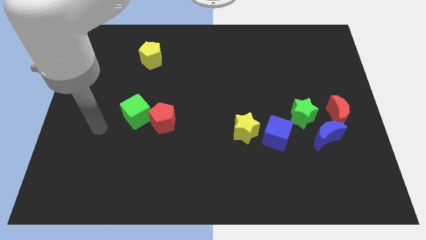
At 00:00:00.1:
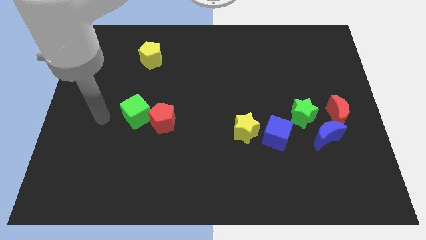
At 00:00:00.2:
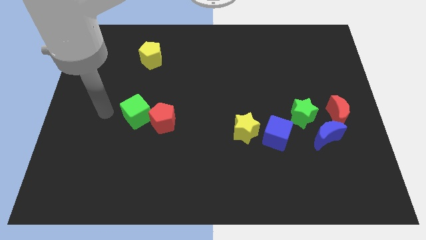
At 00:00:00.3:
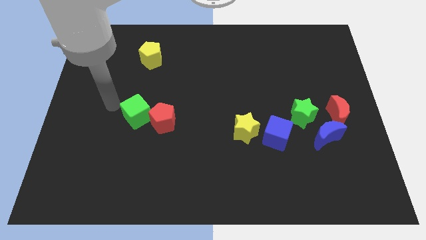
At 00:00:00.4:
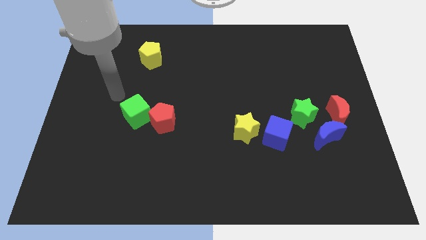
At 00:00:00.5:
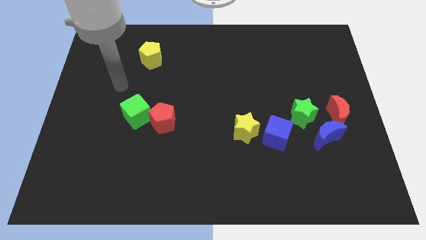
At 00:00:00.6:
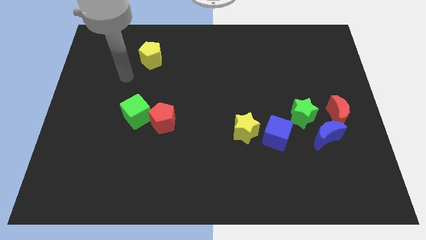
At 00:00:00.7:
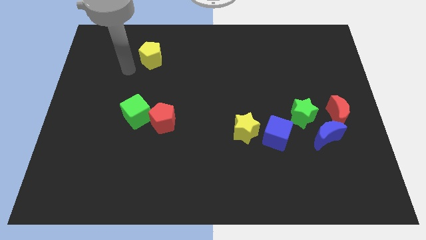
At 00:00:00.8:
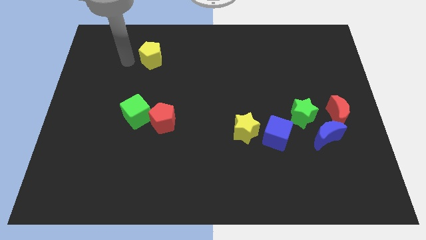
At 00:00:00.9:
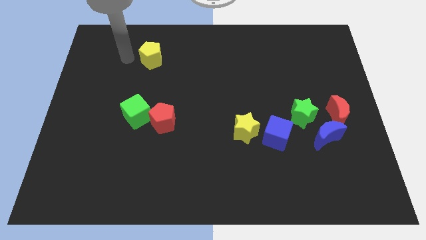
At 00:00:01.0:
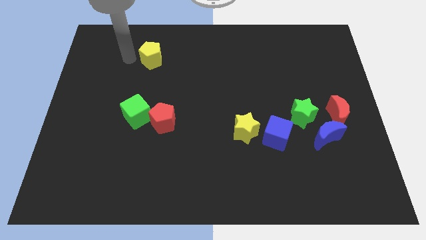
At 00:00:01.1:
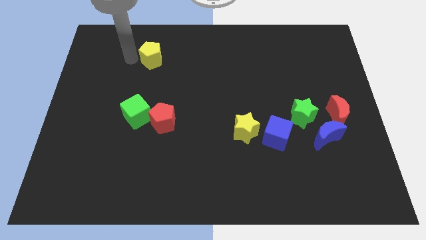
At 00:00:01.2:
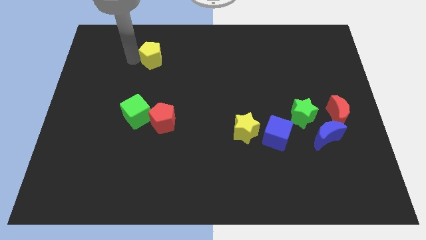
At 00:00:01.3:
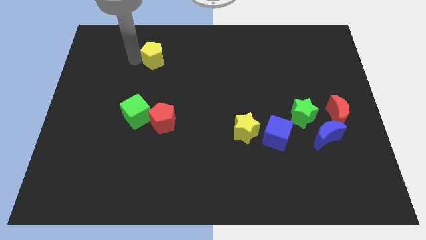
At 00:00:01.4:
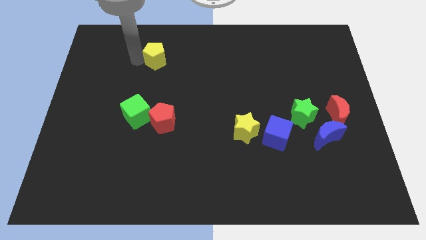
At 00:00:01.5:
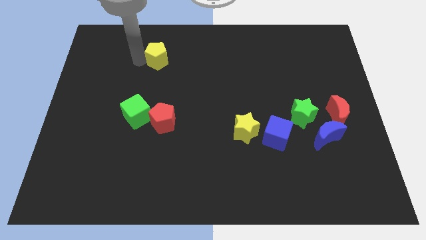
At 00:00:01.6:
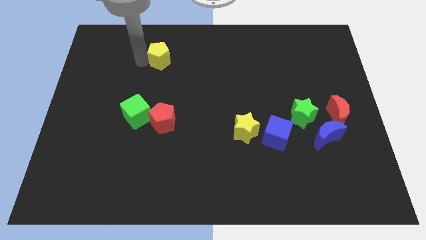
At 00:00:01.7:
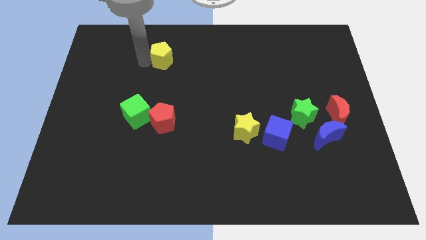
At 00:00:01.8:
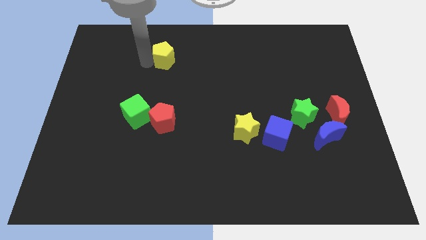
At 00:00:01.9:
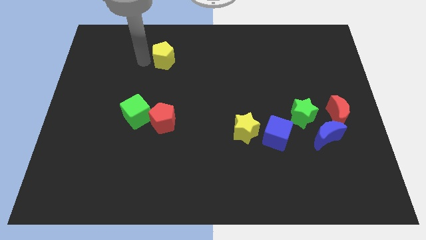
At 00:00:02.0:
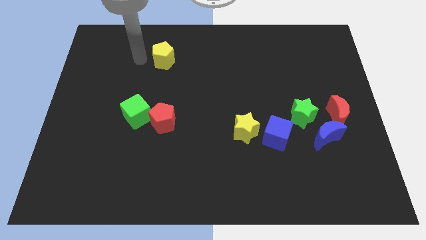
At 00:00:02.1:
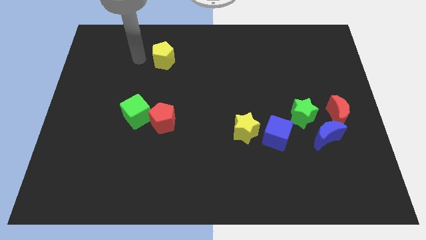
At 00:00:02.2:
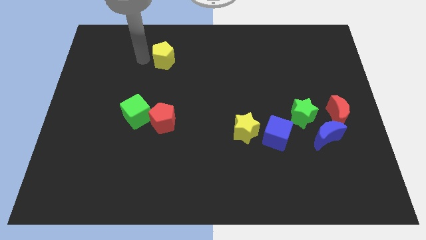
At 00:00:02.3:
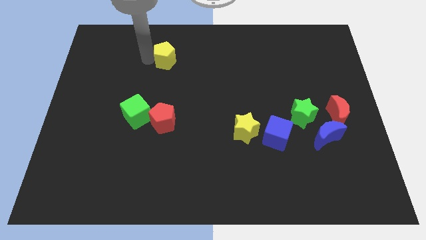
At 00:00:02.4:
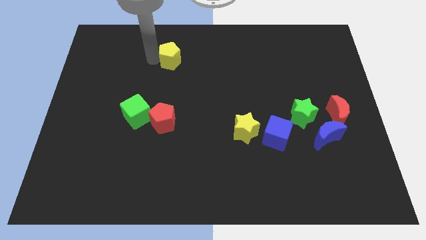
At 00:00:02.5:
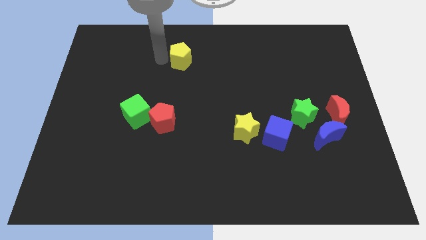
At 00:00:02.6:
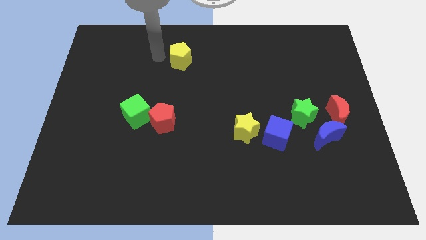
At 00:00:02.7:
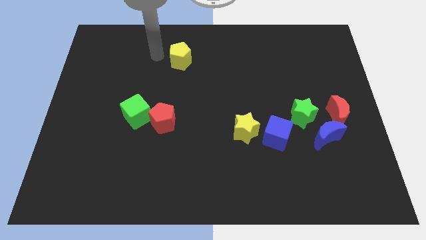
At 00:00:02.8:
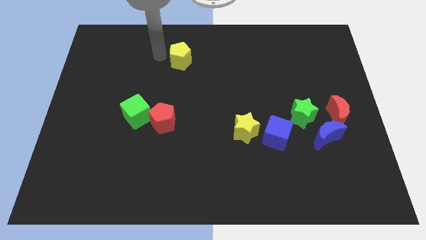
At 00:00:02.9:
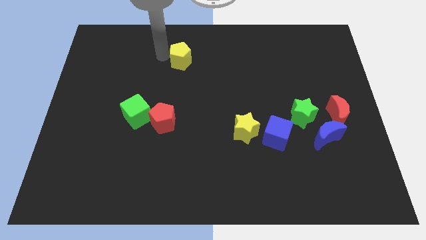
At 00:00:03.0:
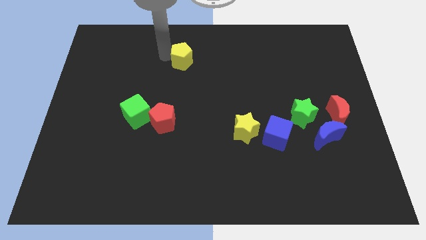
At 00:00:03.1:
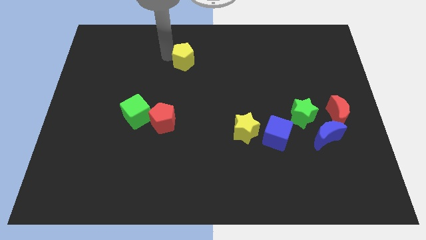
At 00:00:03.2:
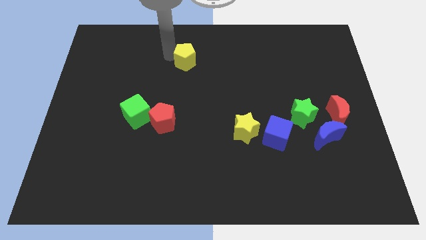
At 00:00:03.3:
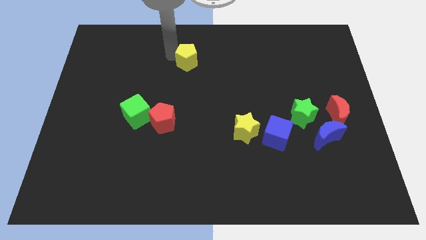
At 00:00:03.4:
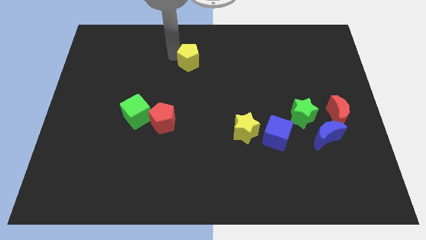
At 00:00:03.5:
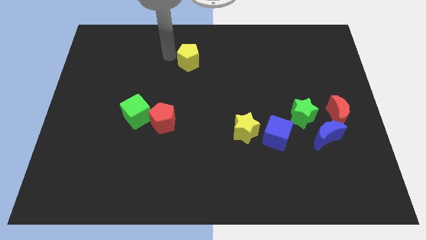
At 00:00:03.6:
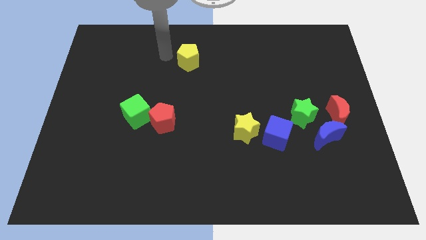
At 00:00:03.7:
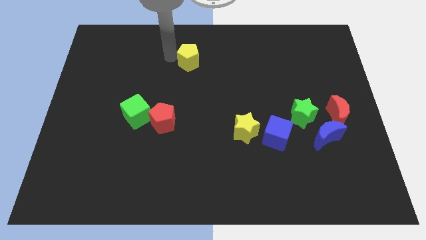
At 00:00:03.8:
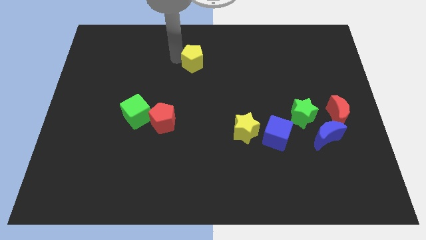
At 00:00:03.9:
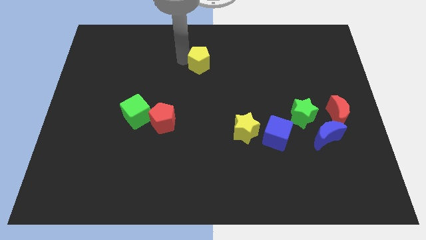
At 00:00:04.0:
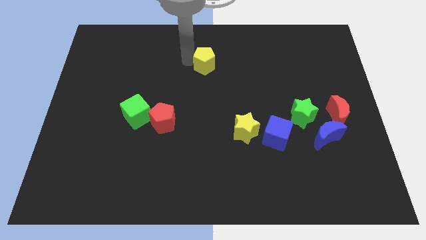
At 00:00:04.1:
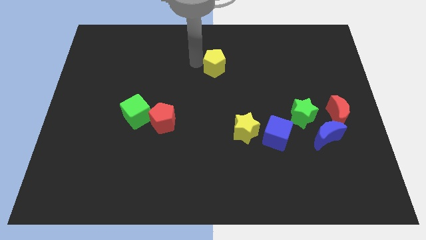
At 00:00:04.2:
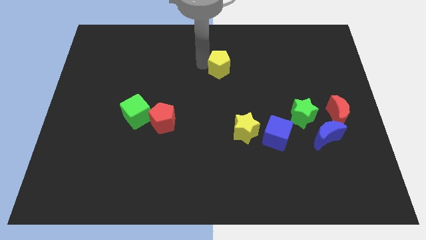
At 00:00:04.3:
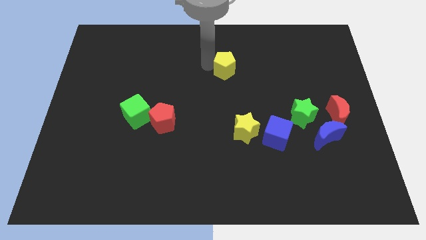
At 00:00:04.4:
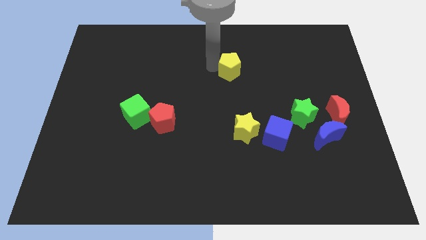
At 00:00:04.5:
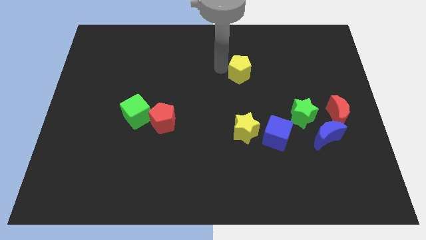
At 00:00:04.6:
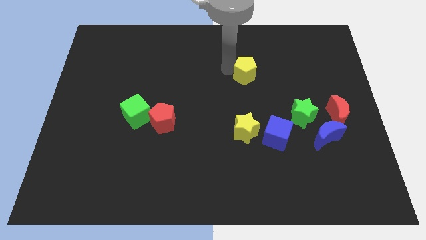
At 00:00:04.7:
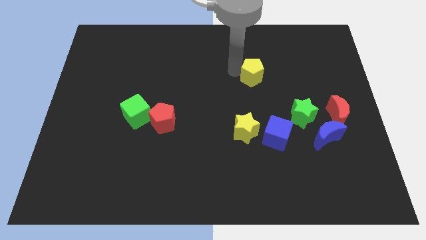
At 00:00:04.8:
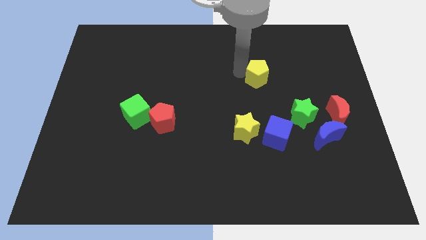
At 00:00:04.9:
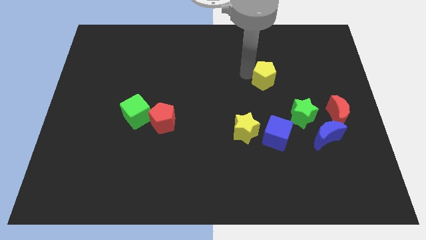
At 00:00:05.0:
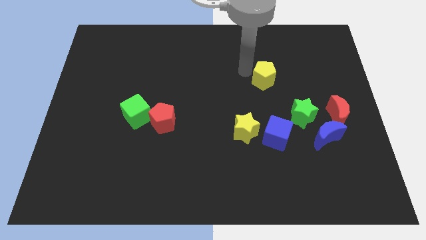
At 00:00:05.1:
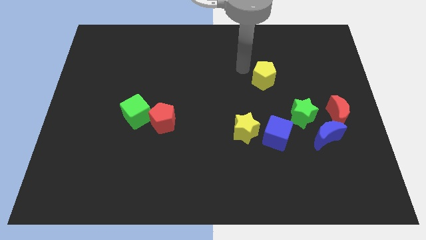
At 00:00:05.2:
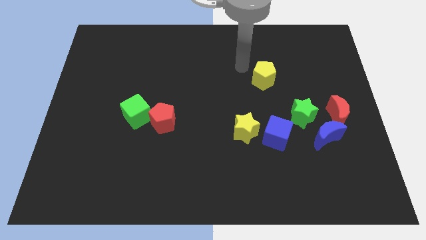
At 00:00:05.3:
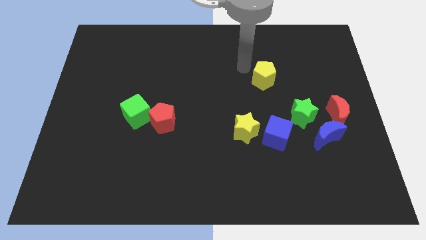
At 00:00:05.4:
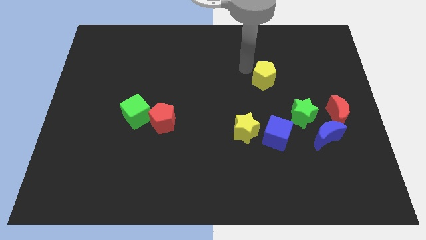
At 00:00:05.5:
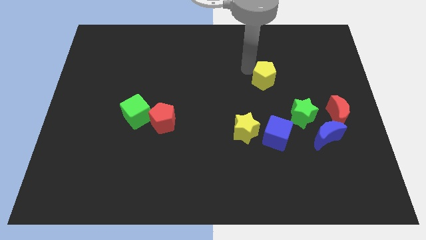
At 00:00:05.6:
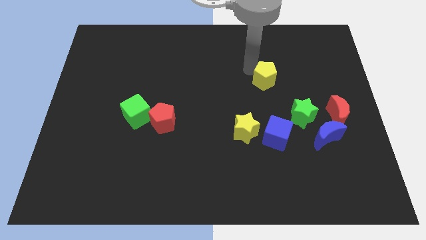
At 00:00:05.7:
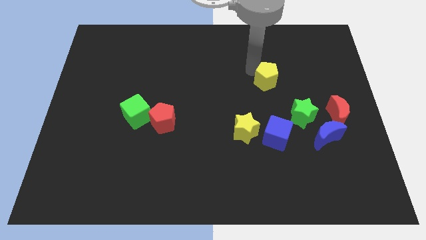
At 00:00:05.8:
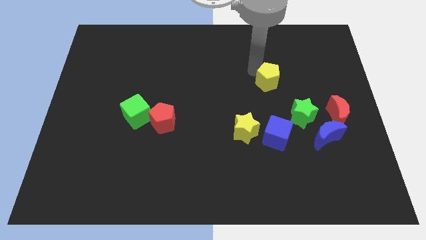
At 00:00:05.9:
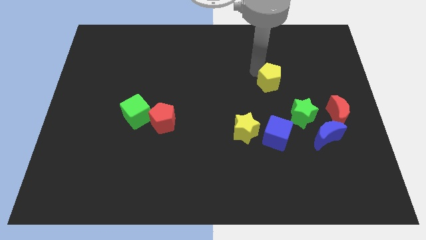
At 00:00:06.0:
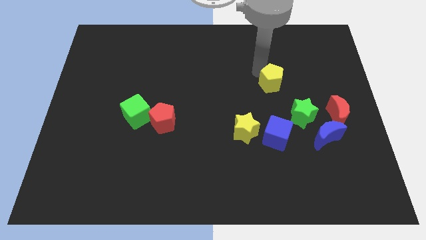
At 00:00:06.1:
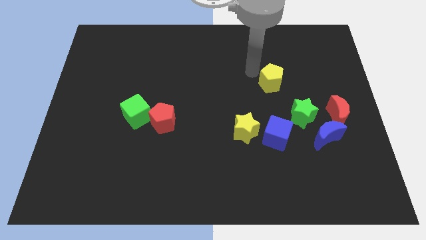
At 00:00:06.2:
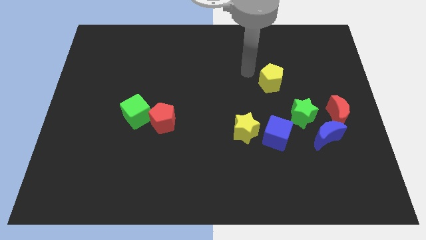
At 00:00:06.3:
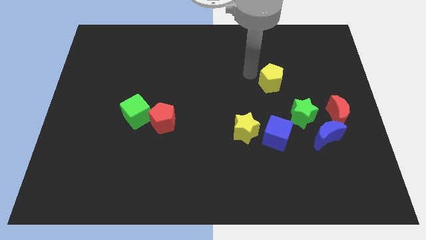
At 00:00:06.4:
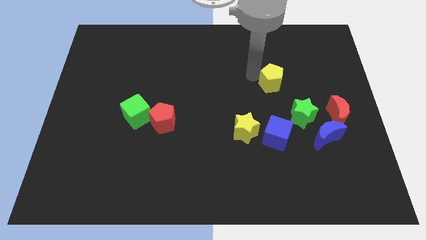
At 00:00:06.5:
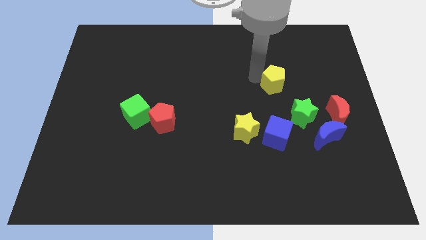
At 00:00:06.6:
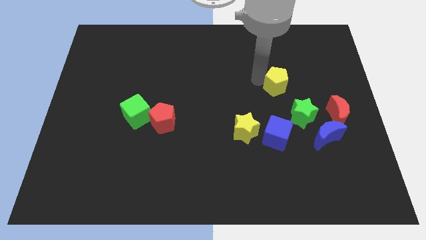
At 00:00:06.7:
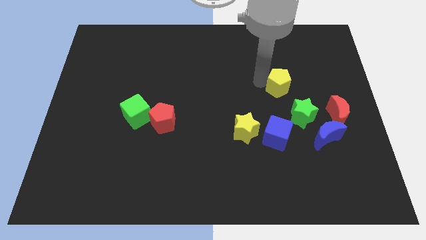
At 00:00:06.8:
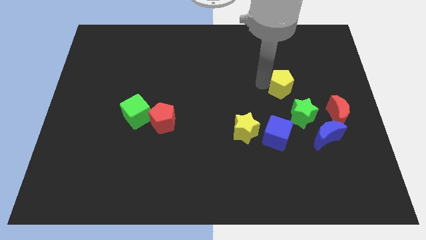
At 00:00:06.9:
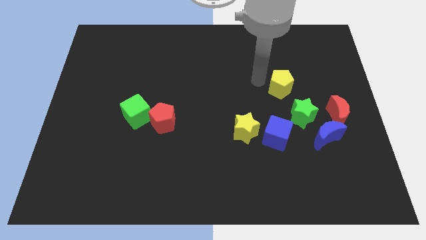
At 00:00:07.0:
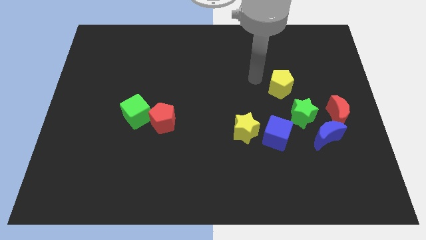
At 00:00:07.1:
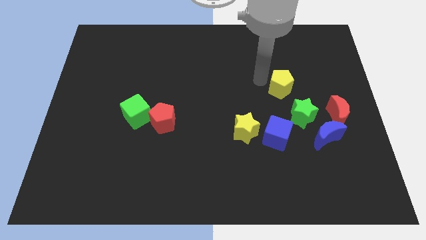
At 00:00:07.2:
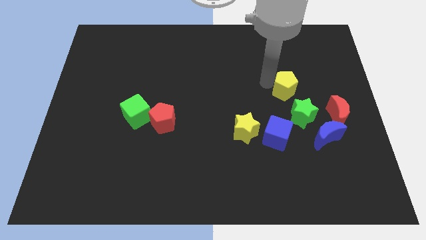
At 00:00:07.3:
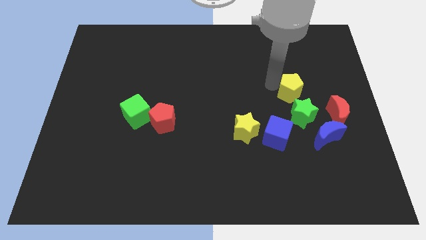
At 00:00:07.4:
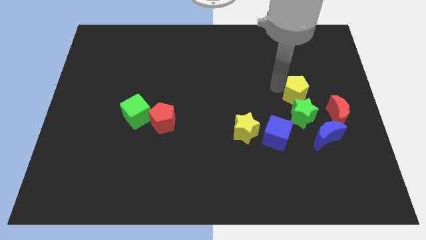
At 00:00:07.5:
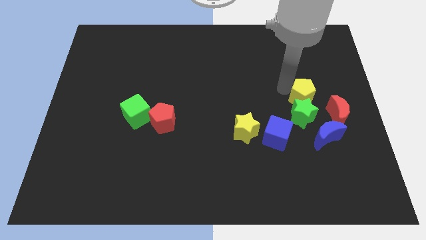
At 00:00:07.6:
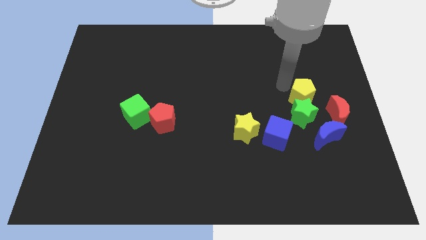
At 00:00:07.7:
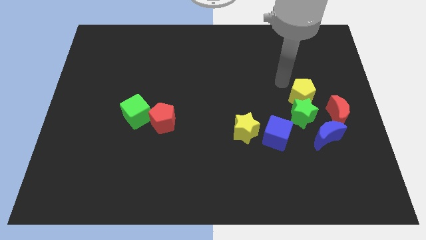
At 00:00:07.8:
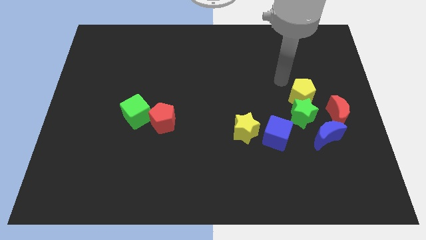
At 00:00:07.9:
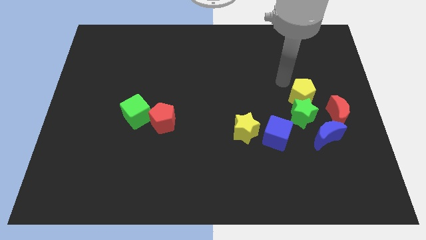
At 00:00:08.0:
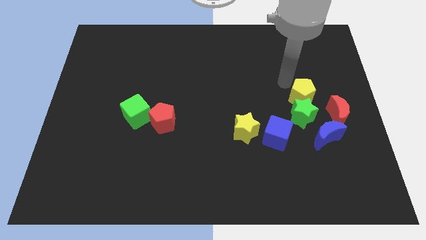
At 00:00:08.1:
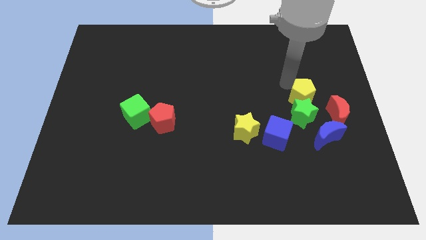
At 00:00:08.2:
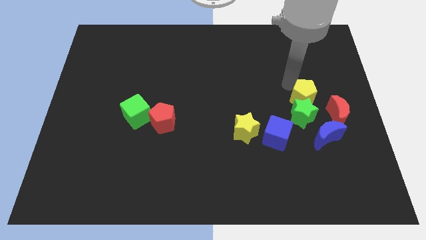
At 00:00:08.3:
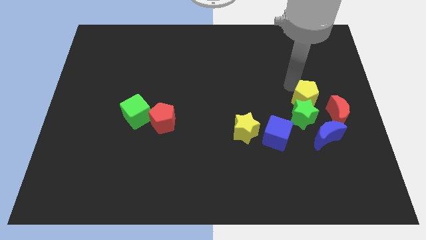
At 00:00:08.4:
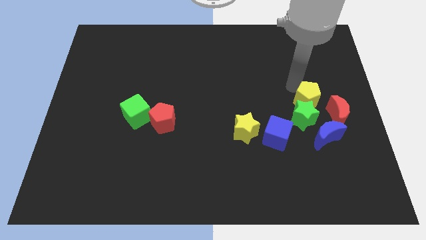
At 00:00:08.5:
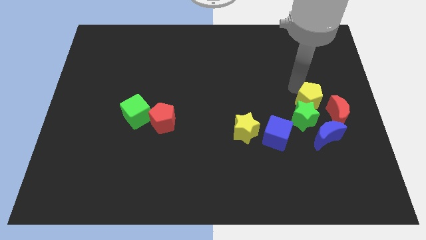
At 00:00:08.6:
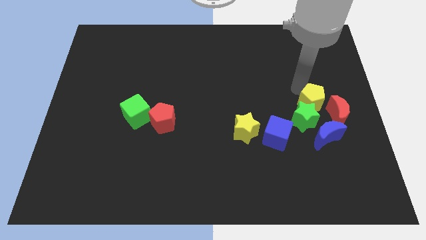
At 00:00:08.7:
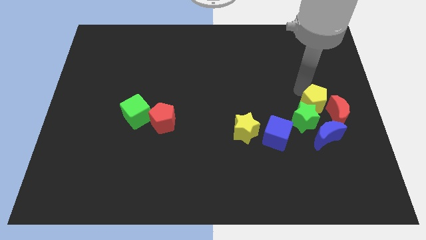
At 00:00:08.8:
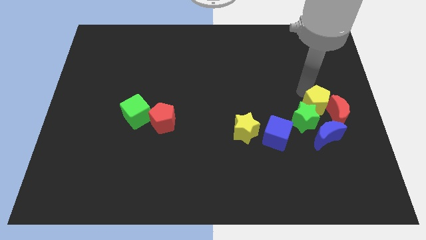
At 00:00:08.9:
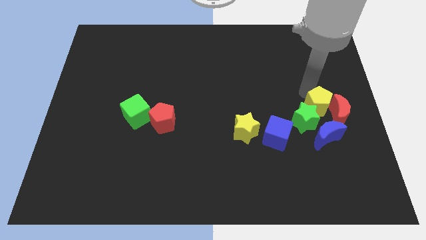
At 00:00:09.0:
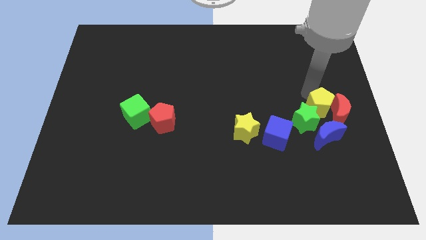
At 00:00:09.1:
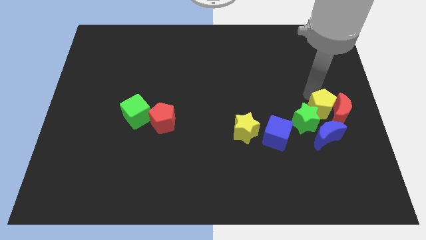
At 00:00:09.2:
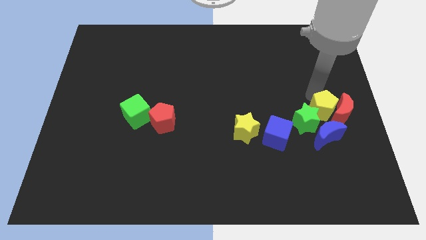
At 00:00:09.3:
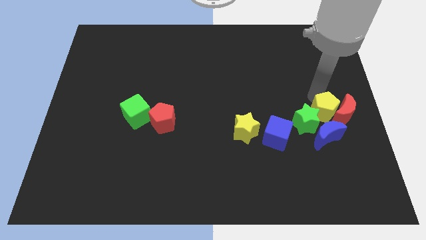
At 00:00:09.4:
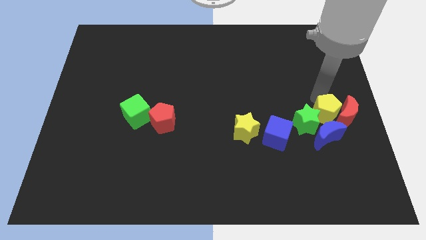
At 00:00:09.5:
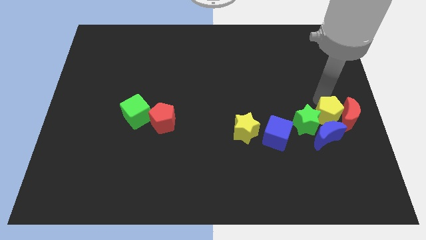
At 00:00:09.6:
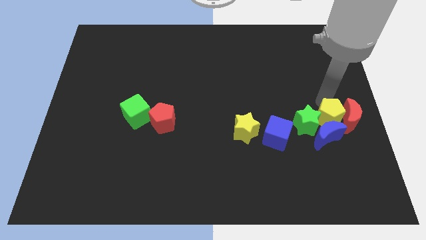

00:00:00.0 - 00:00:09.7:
put the yellow pentagon towards the blue moon
